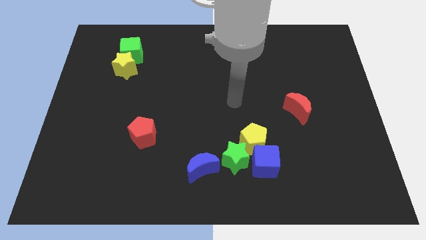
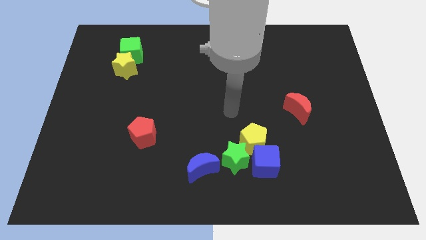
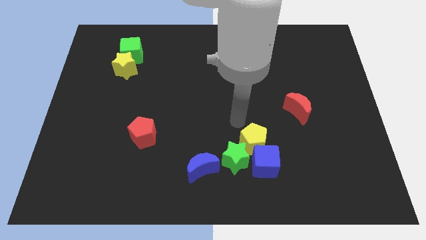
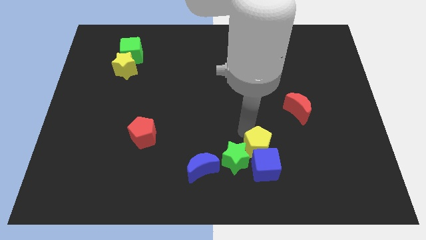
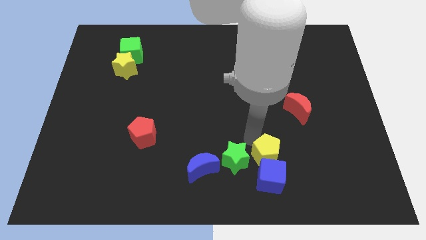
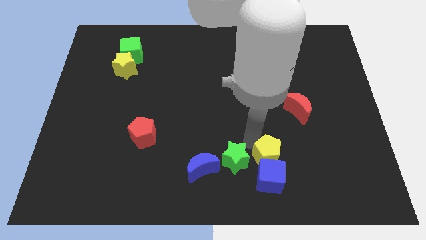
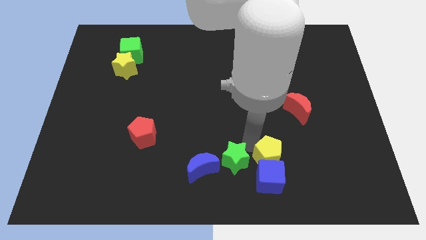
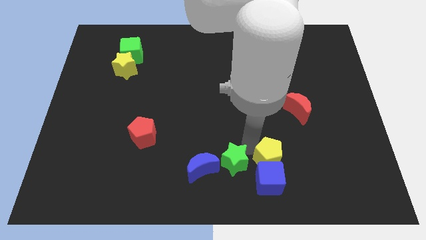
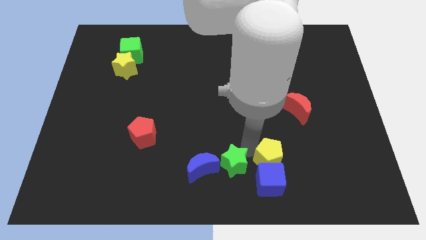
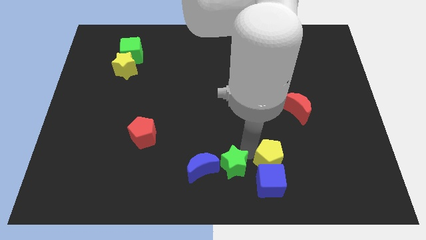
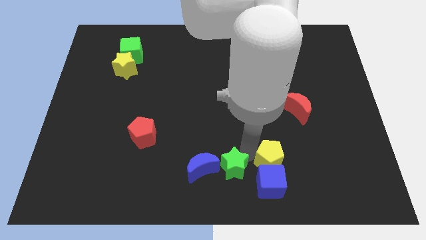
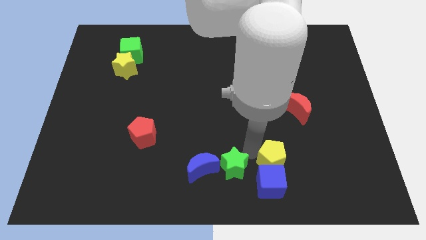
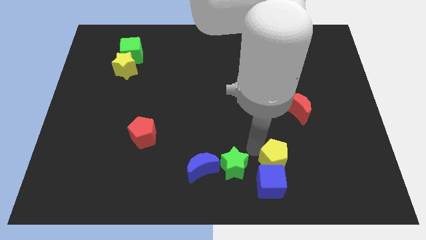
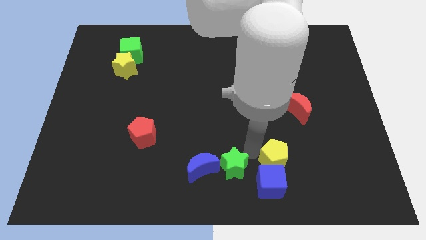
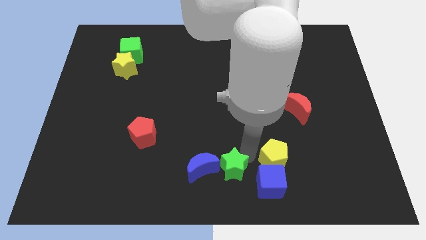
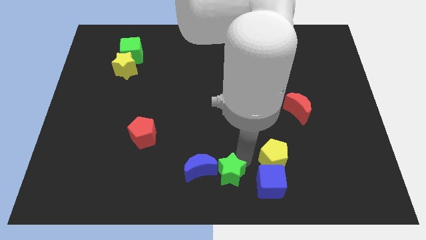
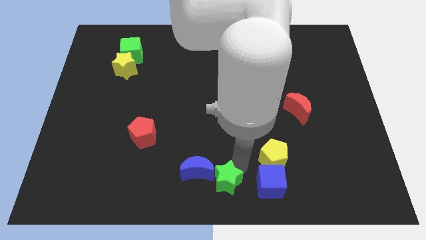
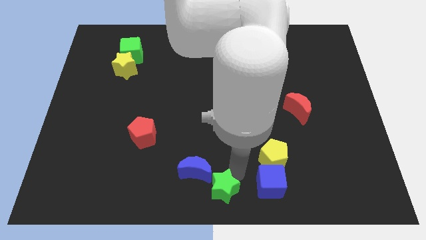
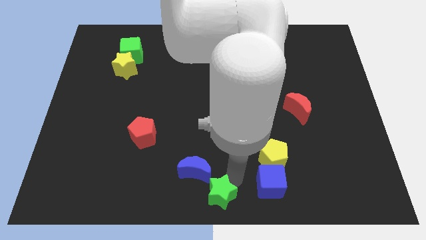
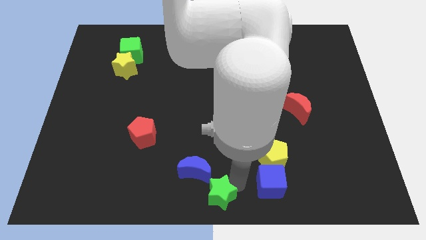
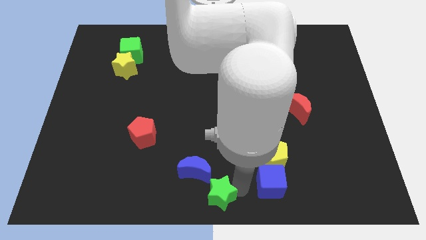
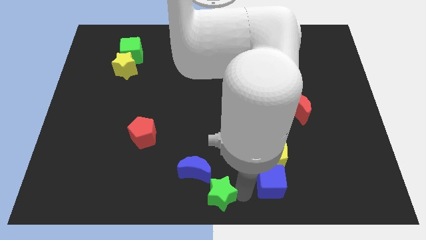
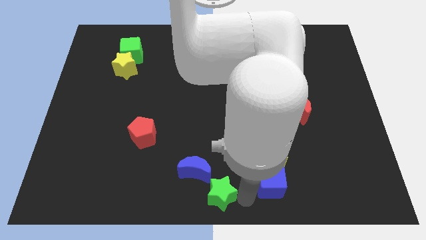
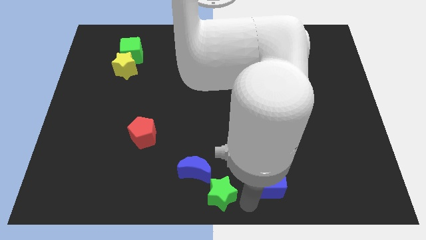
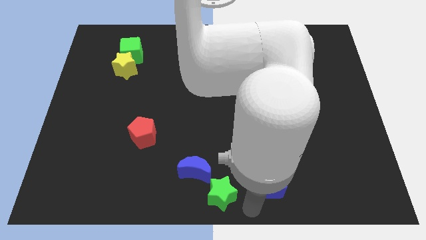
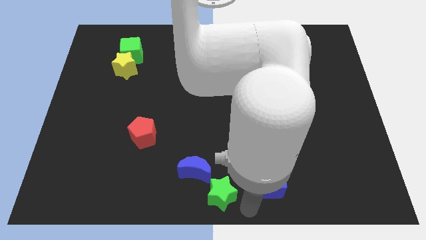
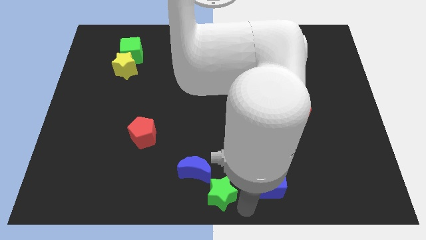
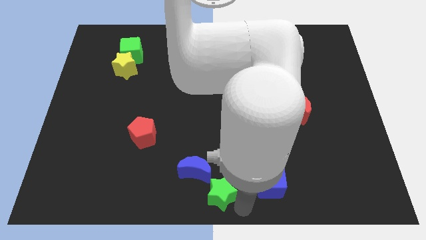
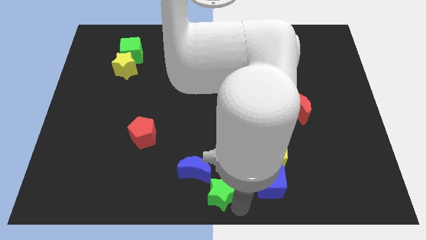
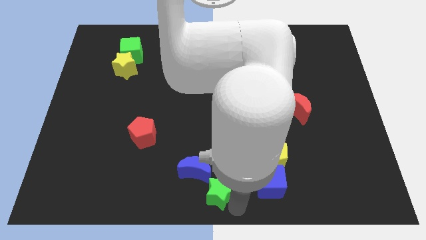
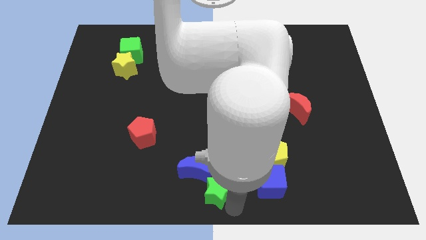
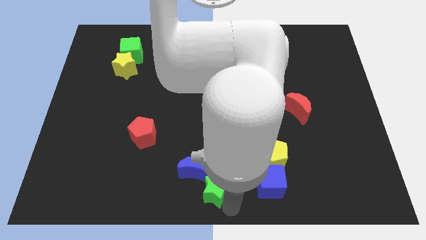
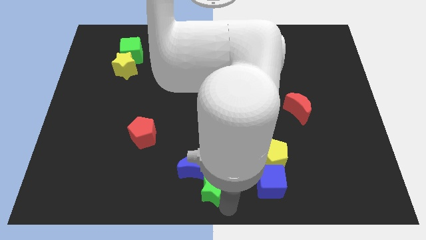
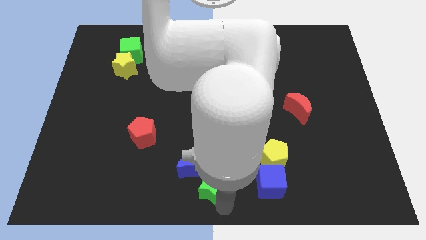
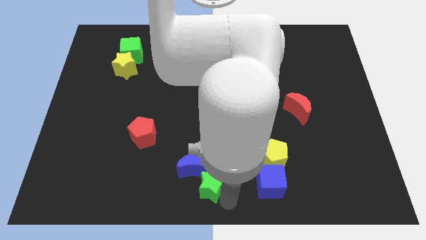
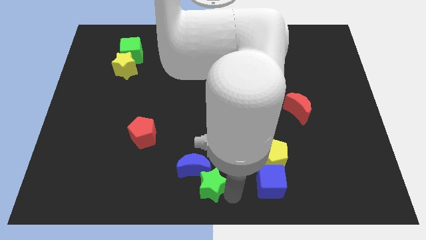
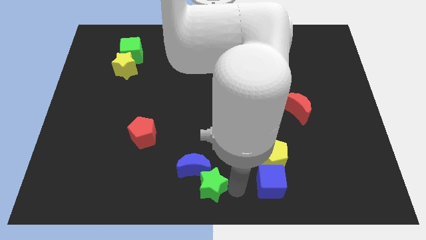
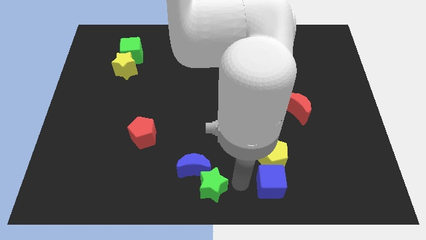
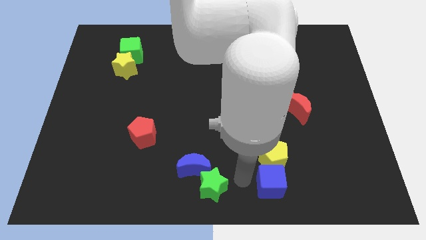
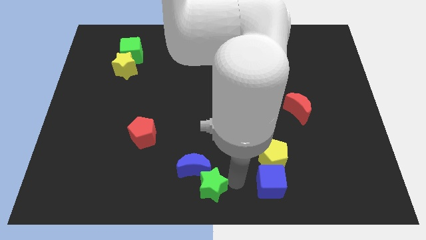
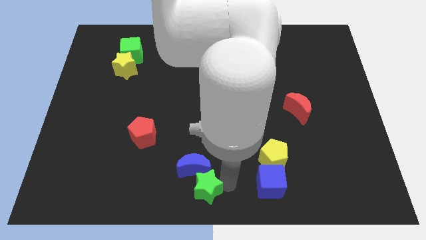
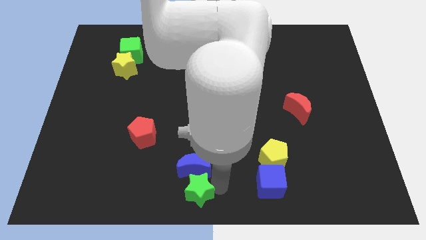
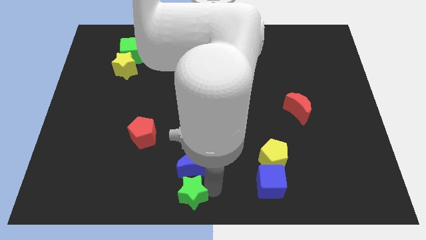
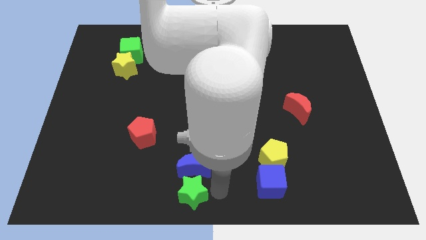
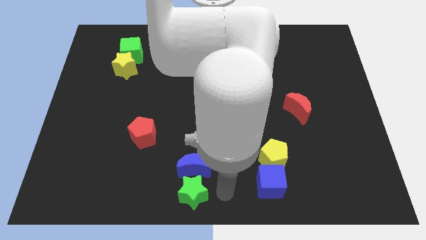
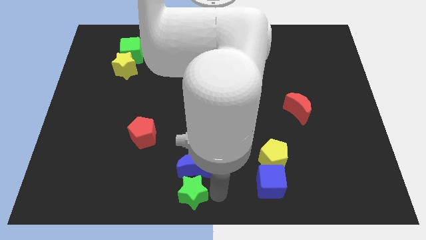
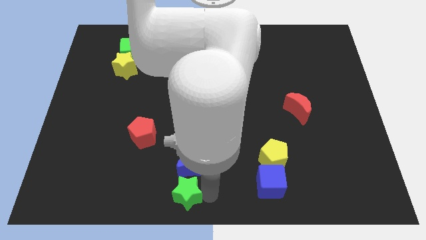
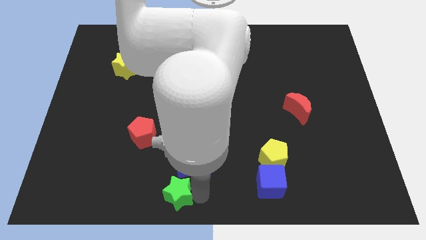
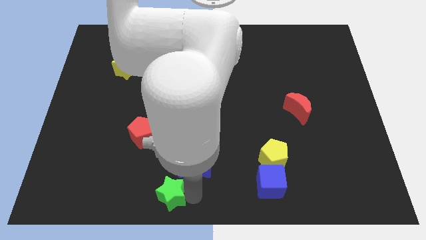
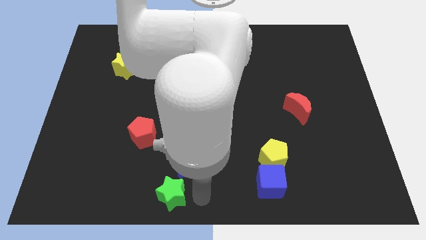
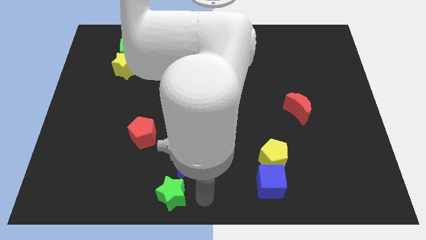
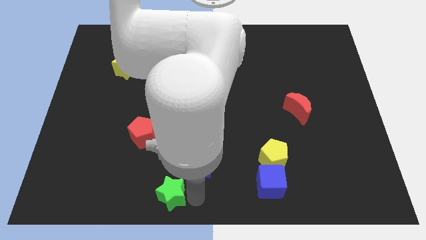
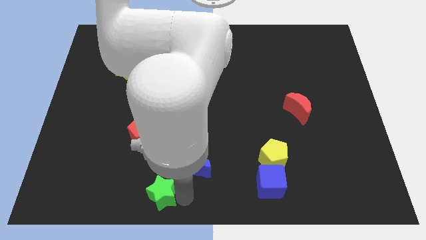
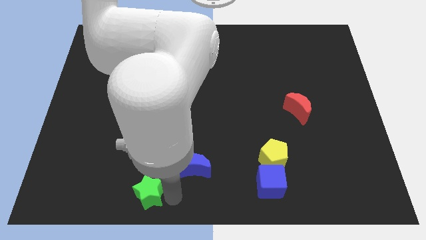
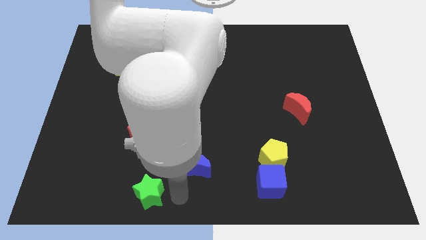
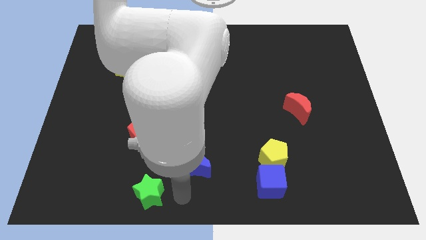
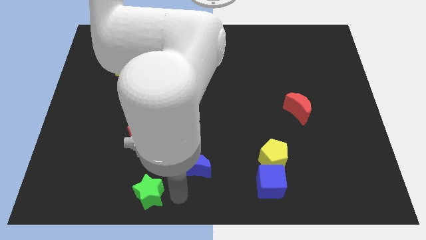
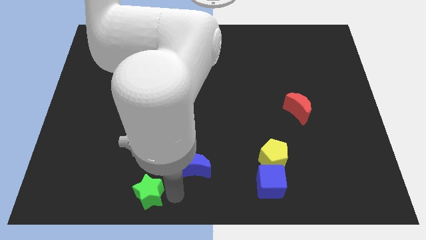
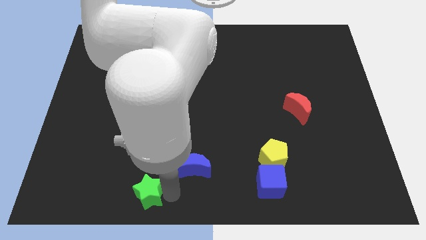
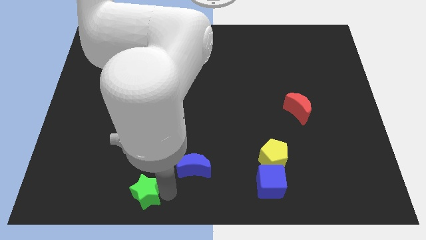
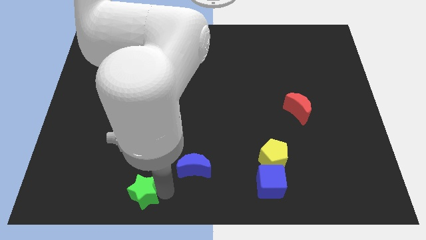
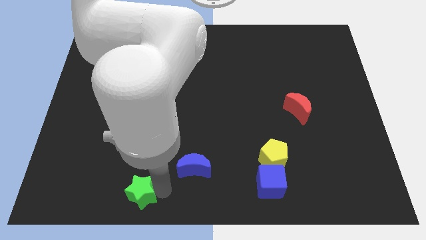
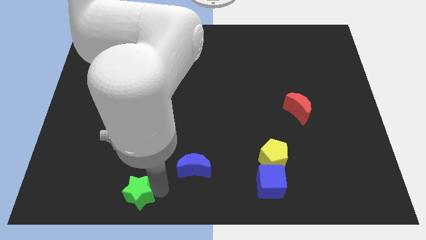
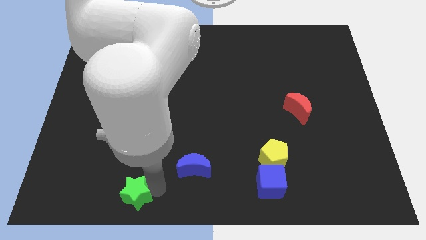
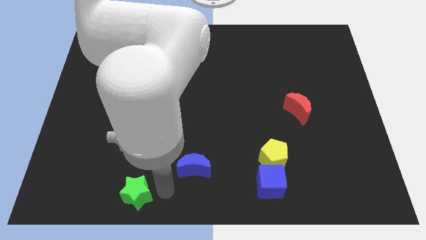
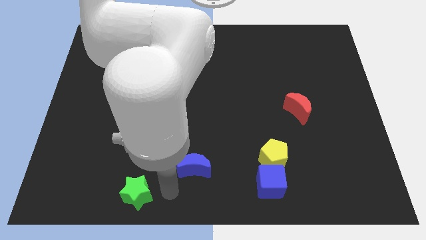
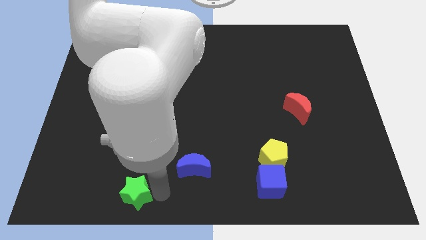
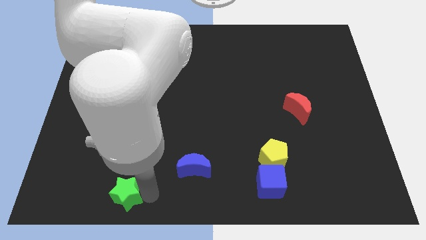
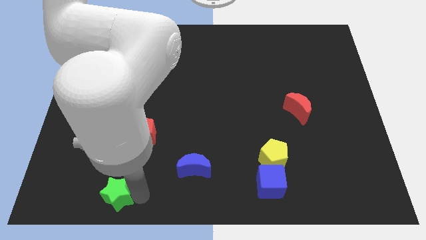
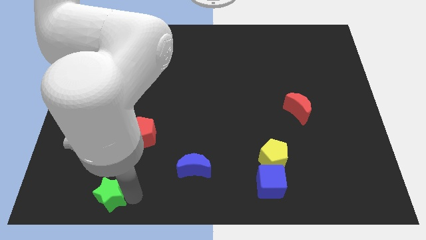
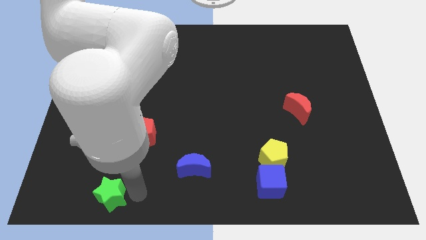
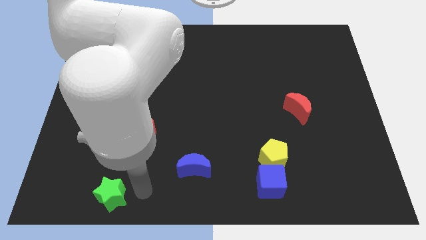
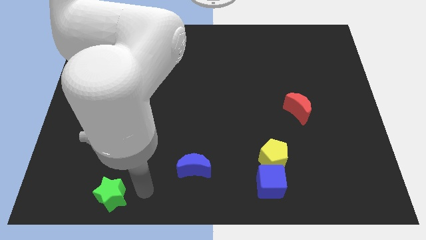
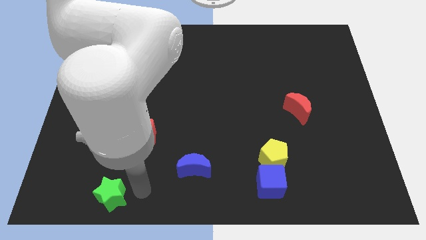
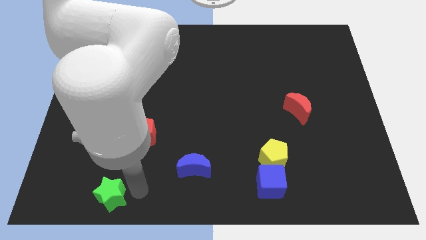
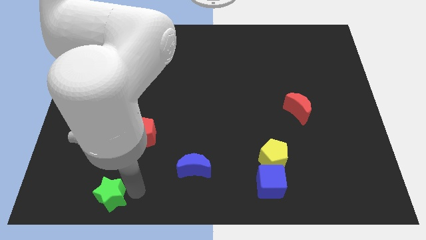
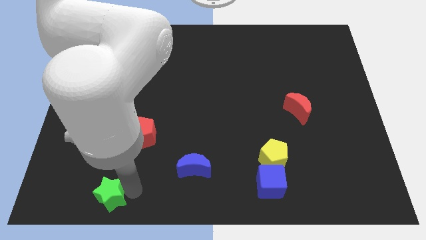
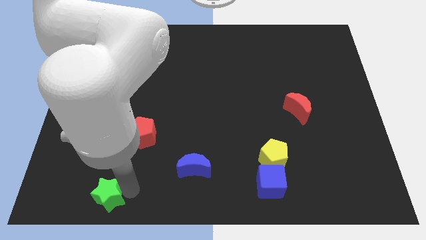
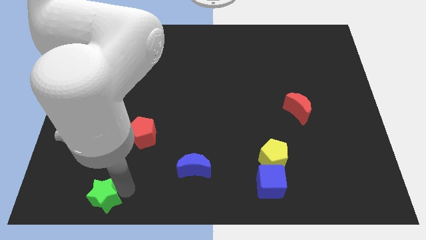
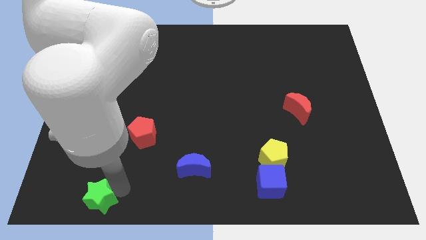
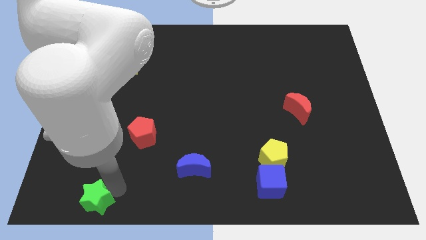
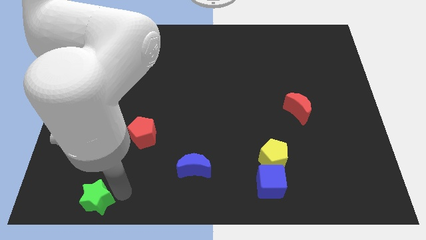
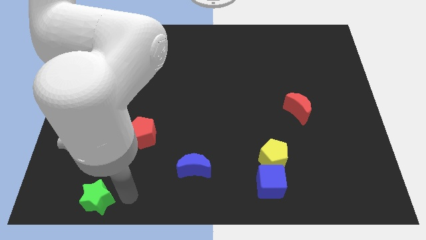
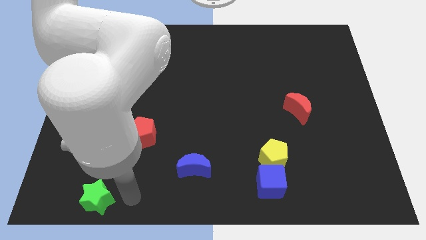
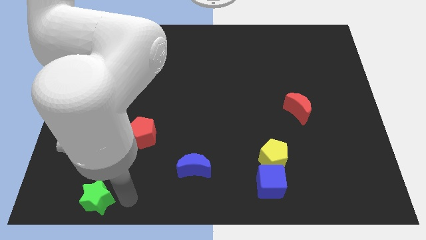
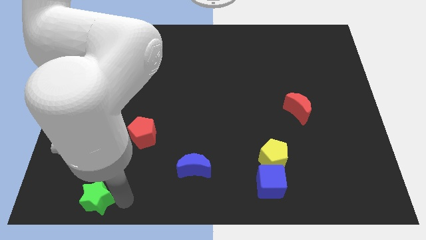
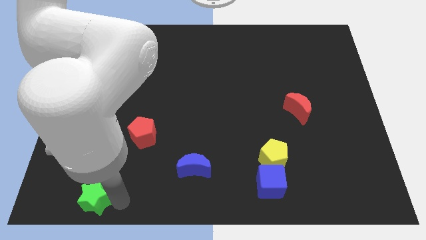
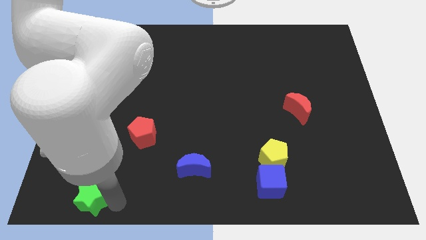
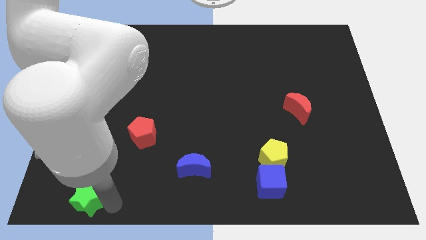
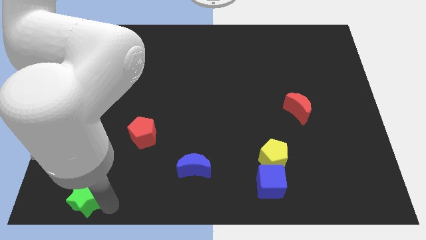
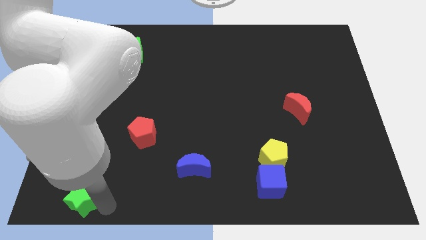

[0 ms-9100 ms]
put the green star to the bottom left corner
